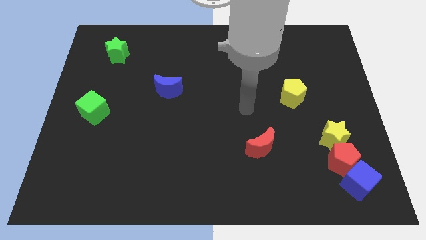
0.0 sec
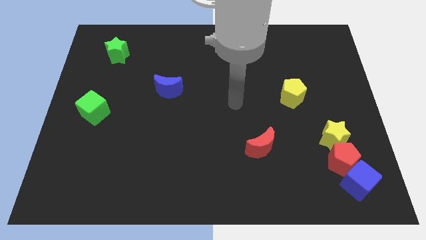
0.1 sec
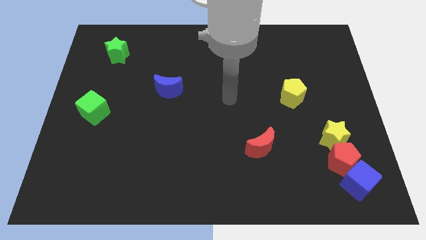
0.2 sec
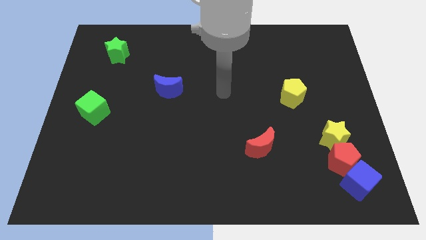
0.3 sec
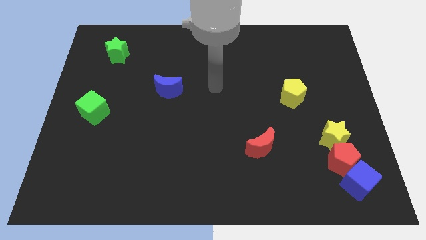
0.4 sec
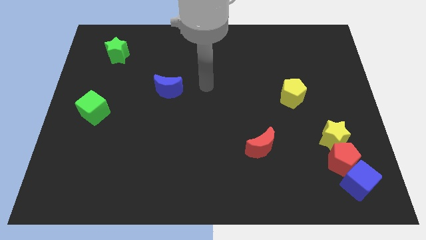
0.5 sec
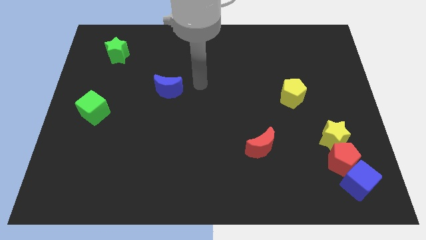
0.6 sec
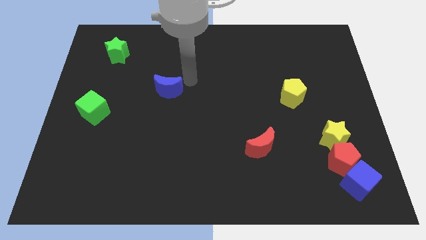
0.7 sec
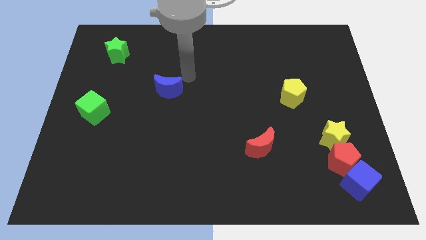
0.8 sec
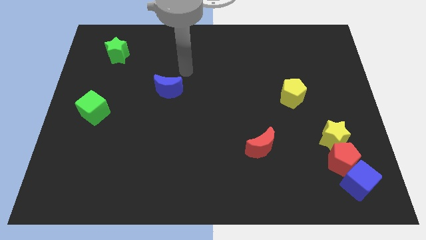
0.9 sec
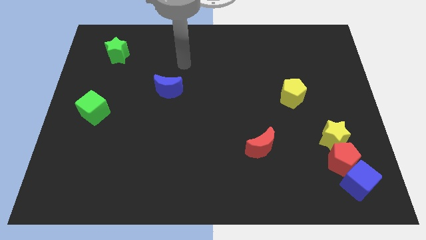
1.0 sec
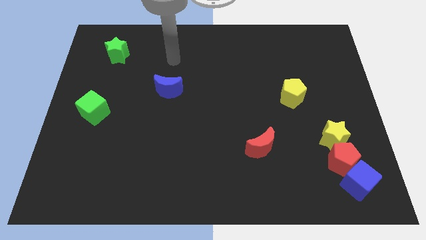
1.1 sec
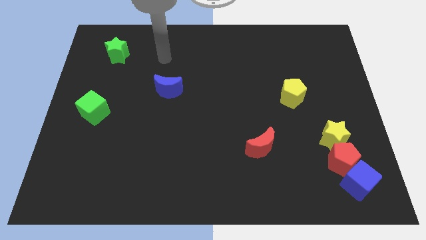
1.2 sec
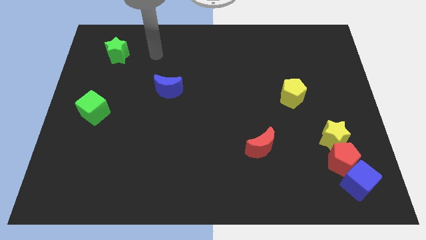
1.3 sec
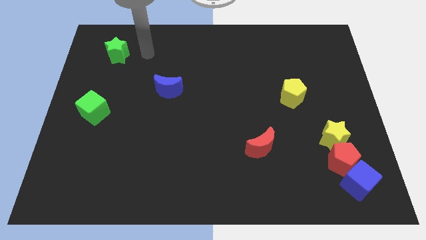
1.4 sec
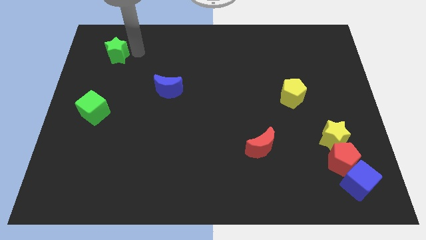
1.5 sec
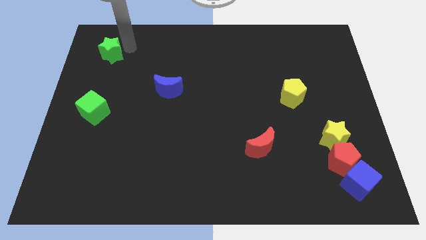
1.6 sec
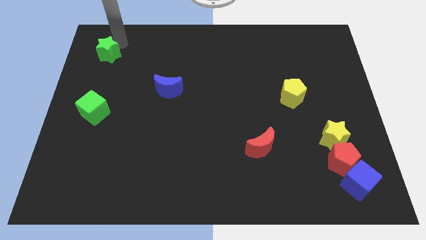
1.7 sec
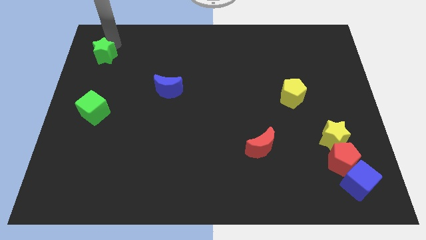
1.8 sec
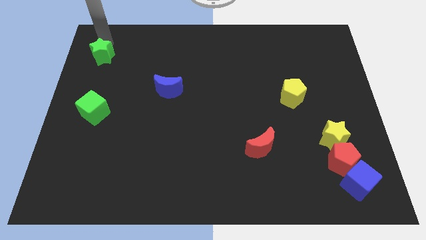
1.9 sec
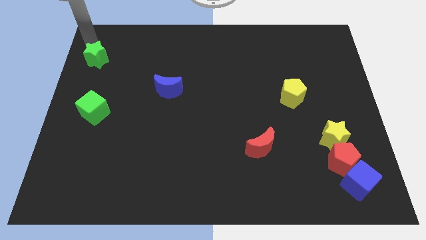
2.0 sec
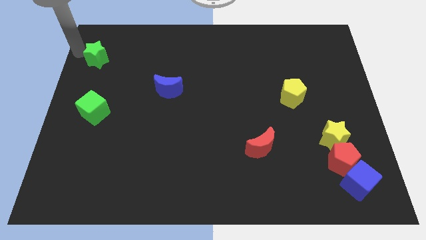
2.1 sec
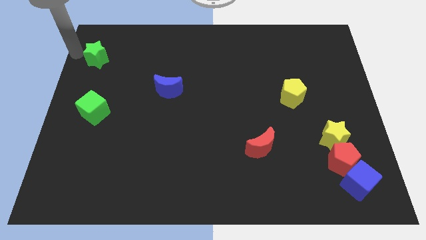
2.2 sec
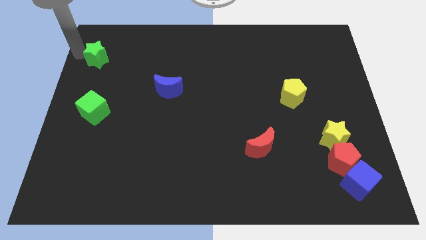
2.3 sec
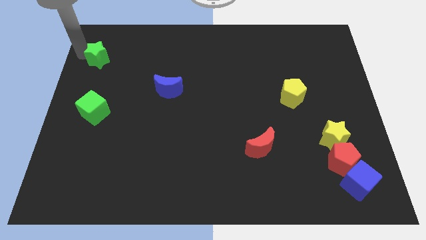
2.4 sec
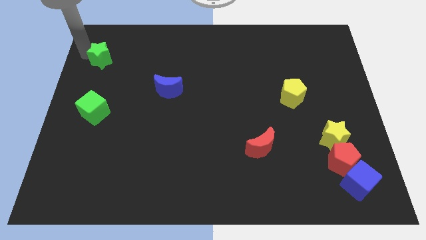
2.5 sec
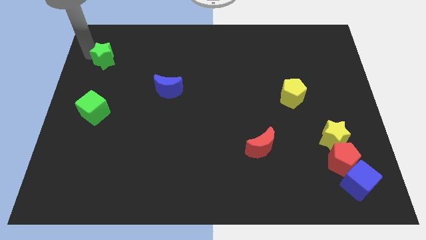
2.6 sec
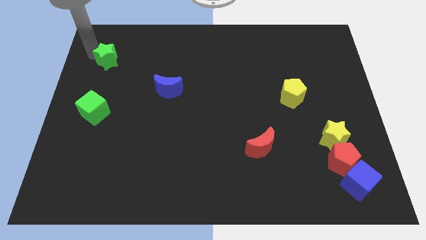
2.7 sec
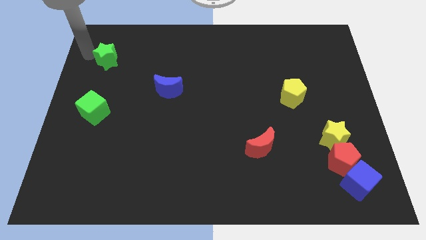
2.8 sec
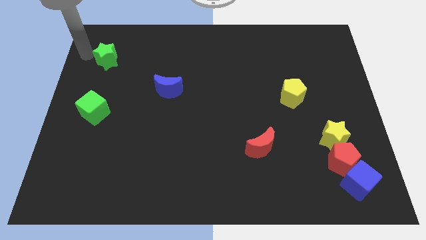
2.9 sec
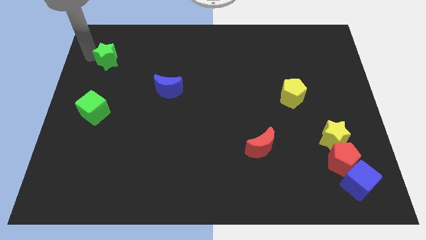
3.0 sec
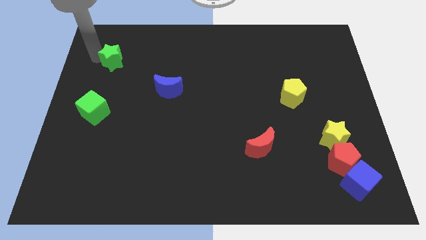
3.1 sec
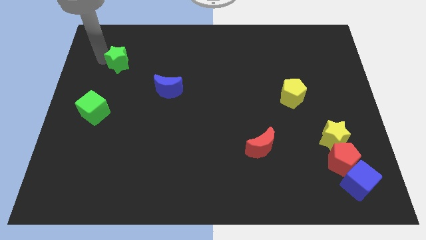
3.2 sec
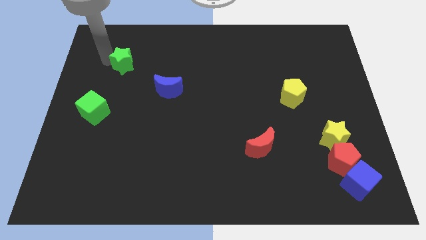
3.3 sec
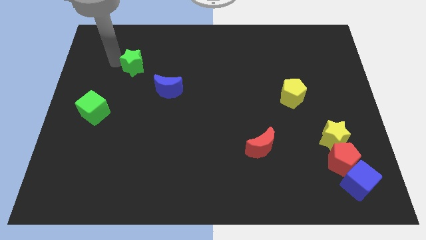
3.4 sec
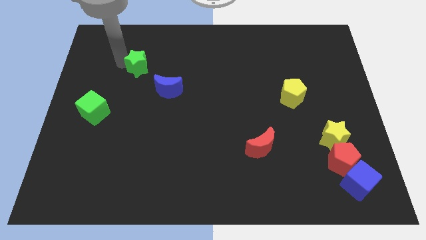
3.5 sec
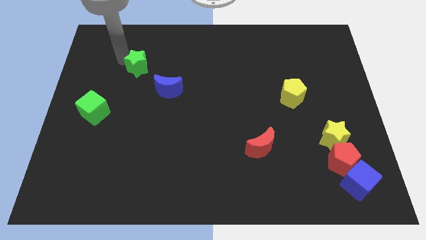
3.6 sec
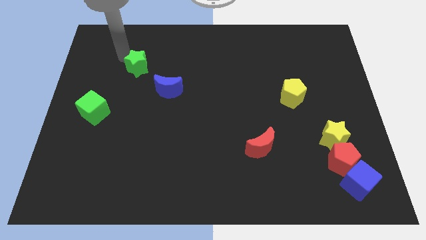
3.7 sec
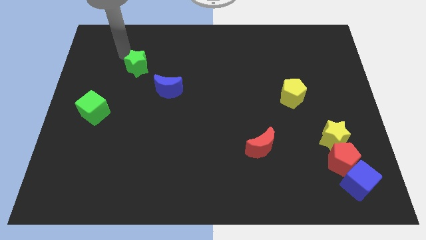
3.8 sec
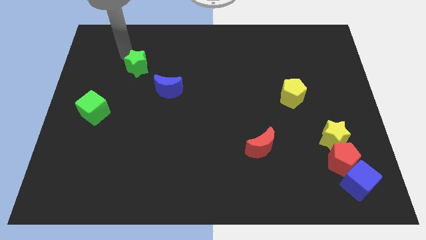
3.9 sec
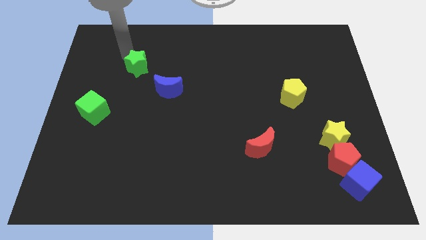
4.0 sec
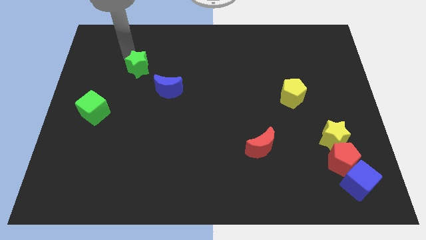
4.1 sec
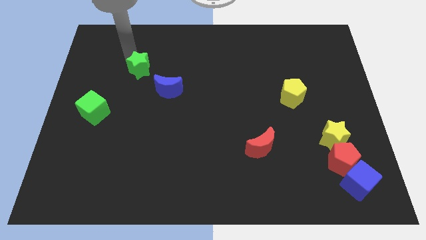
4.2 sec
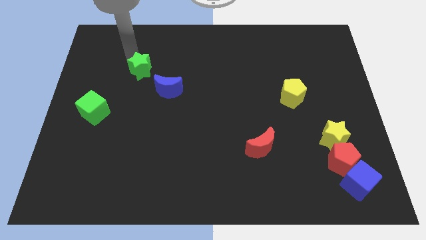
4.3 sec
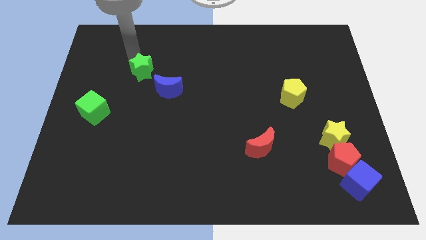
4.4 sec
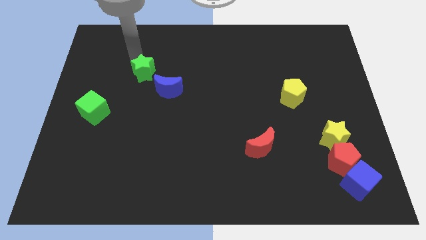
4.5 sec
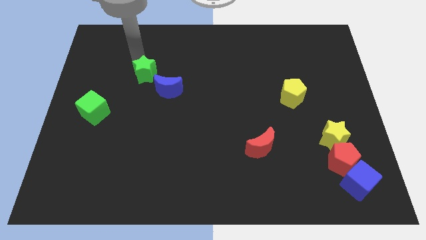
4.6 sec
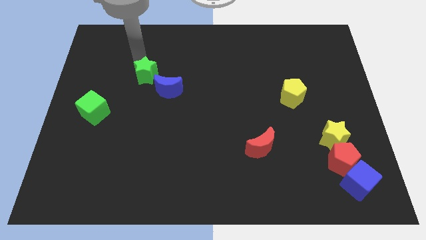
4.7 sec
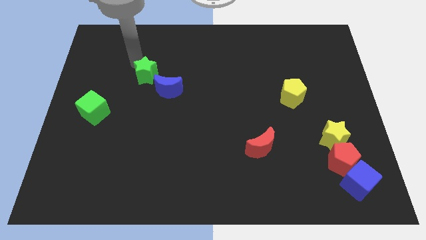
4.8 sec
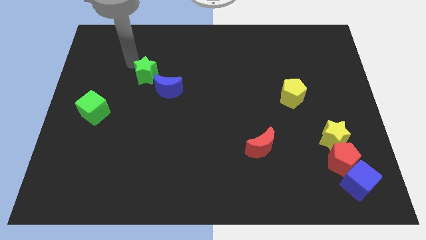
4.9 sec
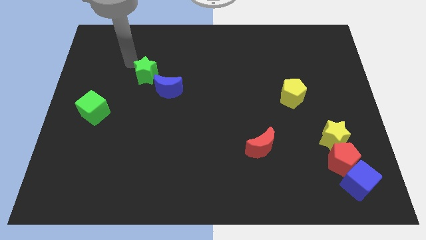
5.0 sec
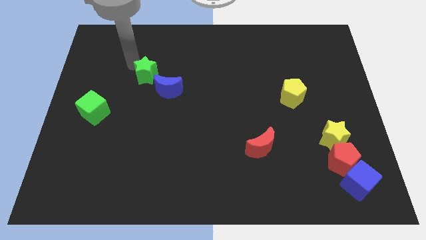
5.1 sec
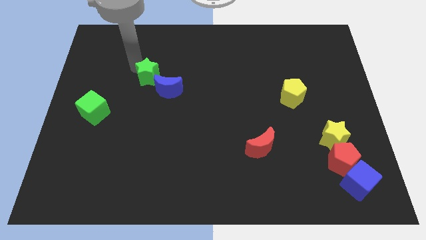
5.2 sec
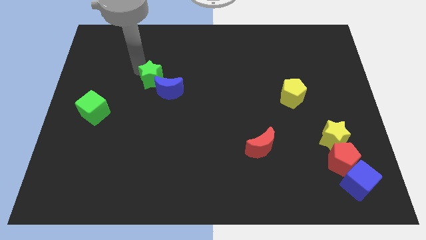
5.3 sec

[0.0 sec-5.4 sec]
slide the green star towards the blue moon

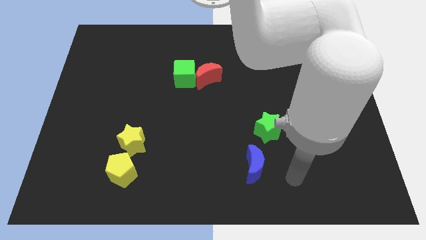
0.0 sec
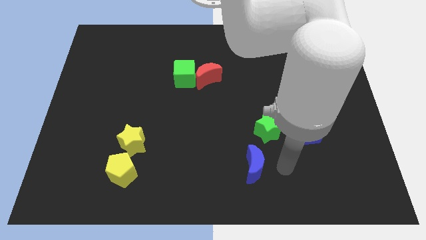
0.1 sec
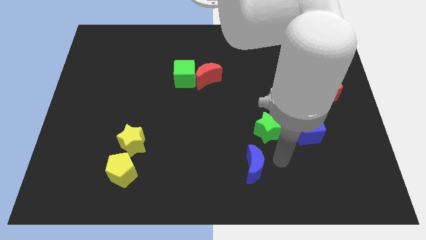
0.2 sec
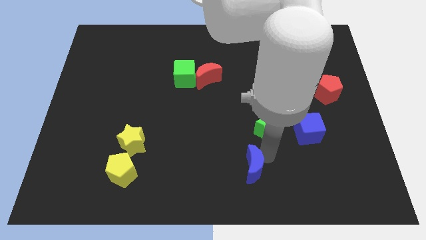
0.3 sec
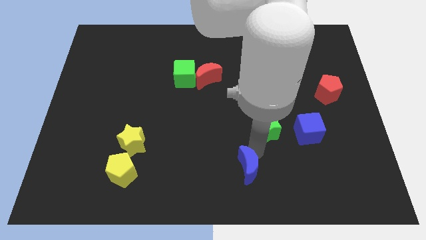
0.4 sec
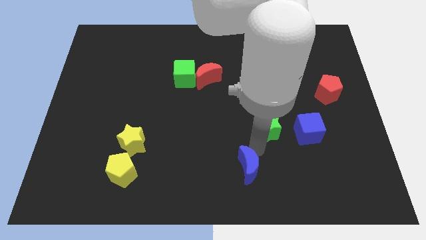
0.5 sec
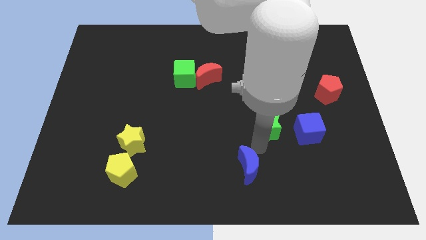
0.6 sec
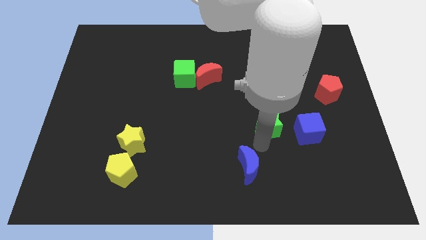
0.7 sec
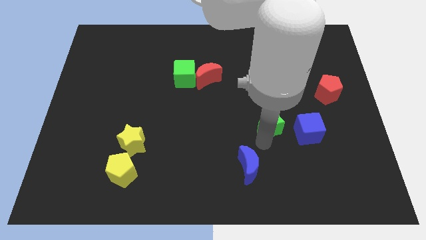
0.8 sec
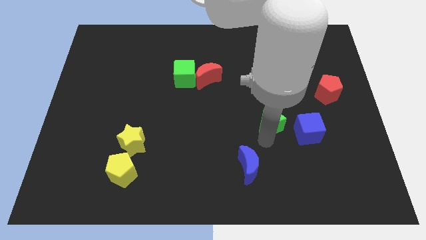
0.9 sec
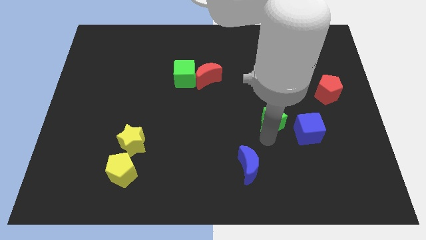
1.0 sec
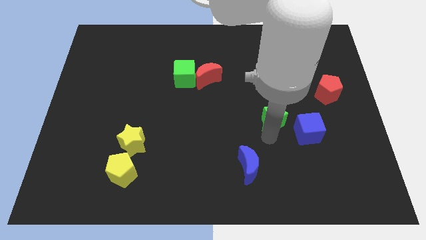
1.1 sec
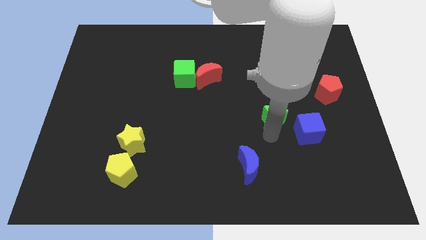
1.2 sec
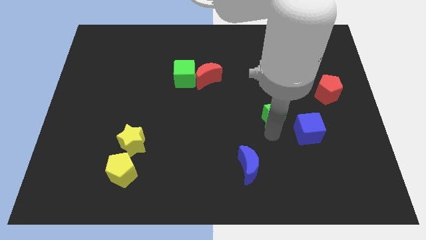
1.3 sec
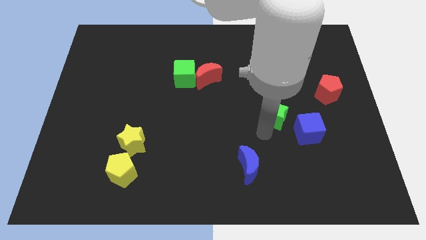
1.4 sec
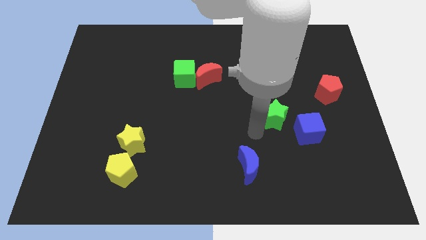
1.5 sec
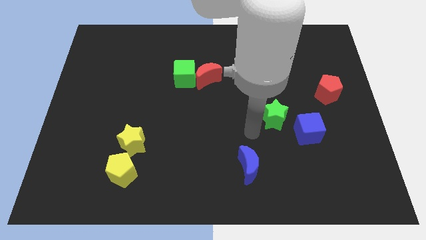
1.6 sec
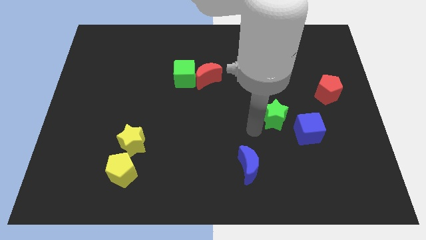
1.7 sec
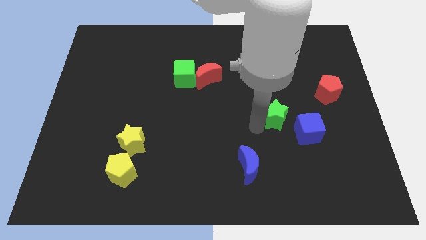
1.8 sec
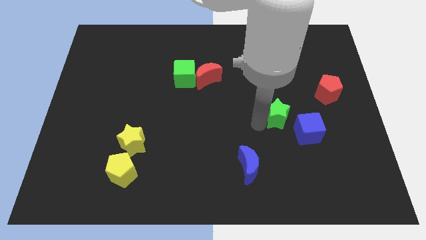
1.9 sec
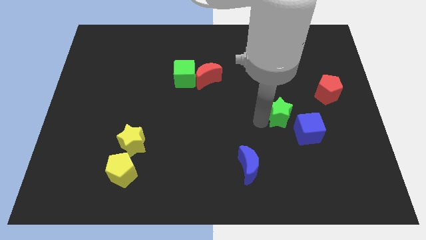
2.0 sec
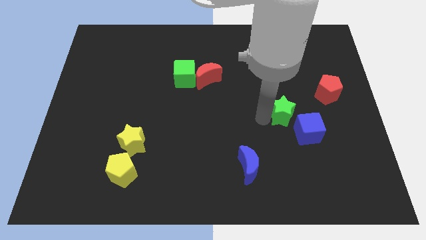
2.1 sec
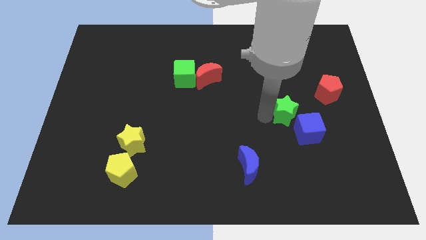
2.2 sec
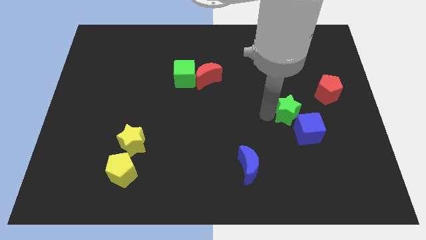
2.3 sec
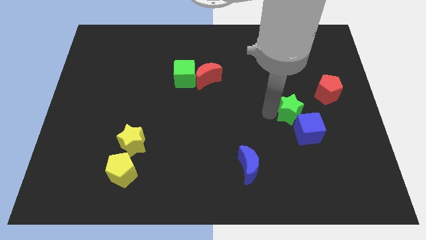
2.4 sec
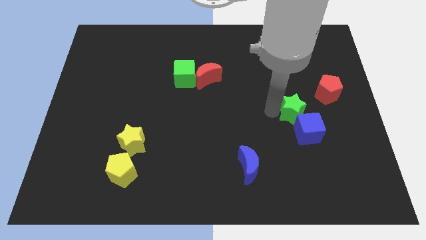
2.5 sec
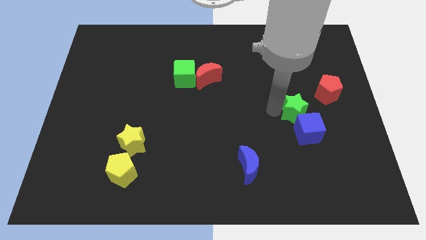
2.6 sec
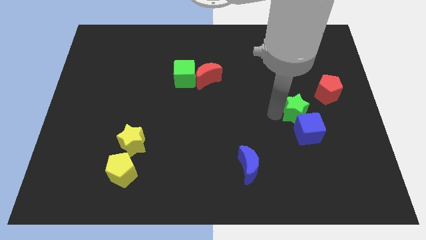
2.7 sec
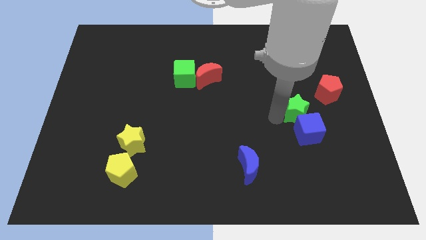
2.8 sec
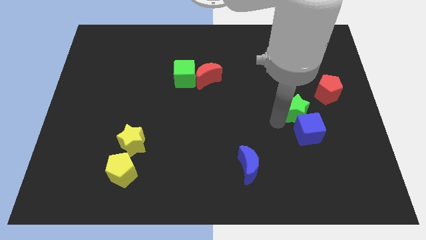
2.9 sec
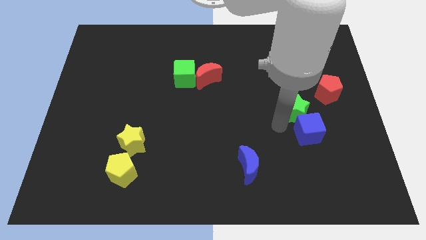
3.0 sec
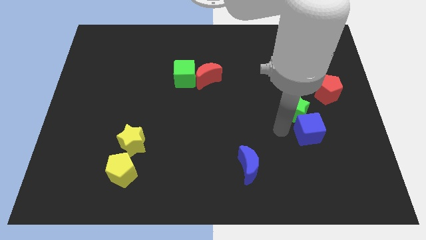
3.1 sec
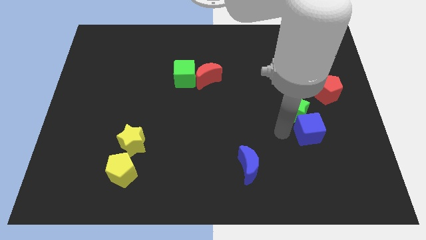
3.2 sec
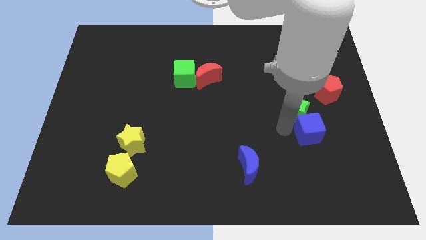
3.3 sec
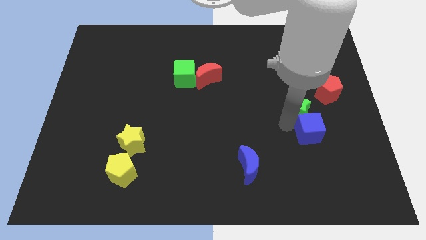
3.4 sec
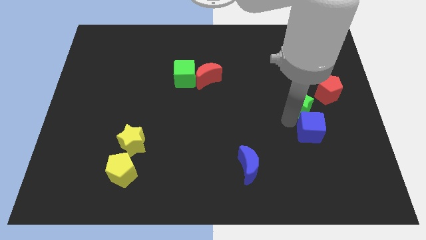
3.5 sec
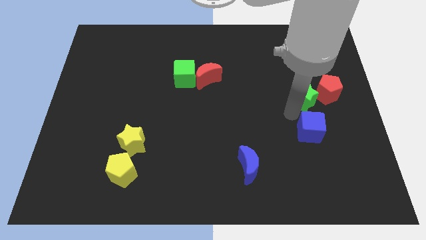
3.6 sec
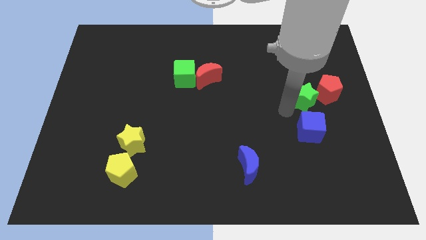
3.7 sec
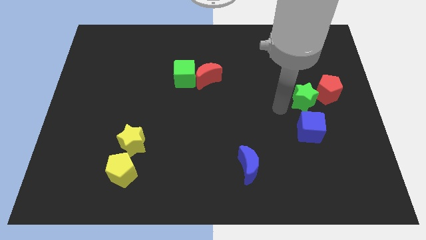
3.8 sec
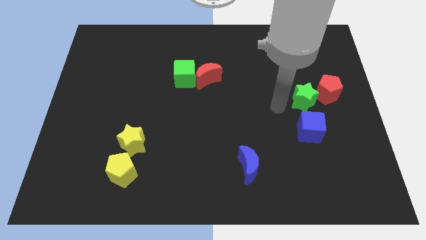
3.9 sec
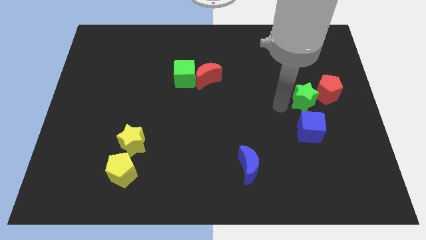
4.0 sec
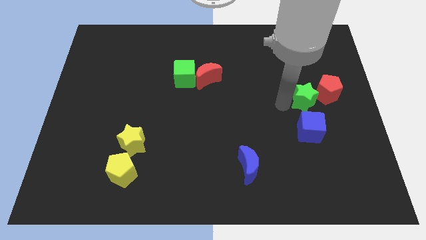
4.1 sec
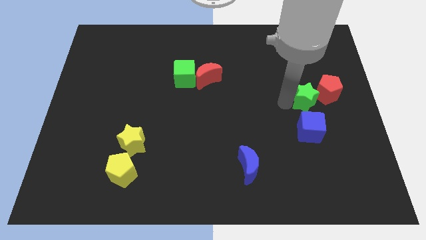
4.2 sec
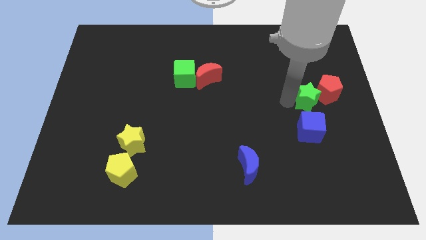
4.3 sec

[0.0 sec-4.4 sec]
slide the green star to the red pentagon
